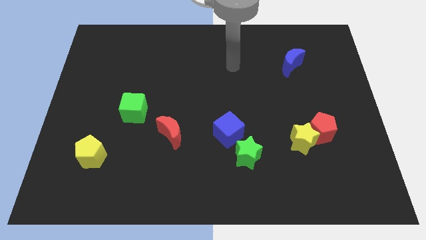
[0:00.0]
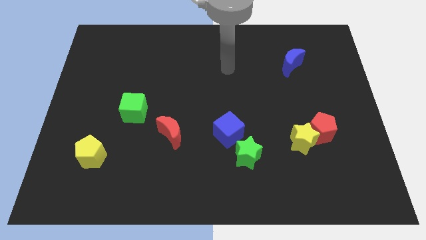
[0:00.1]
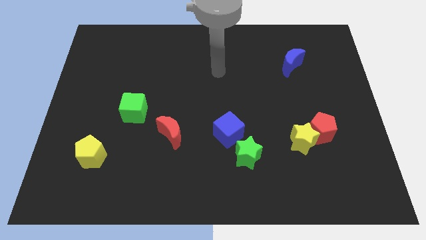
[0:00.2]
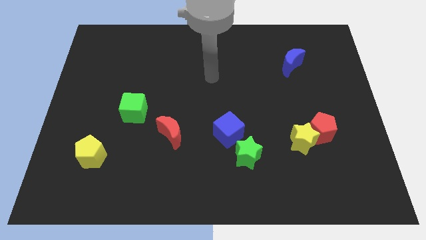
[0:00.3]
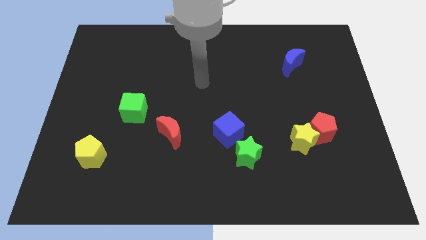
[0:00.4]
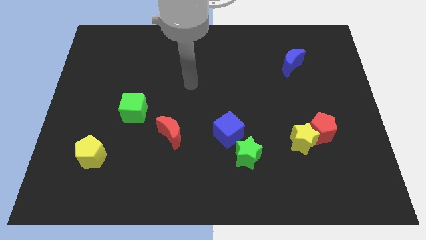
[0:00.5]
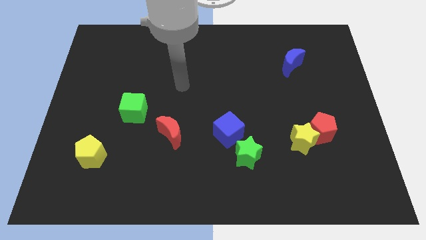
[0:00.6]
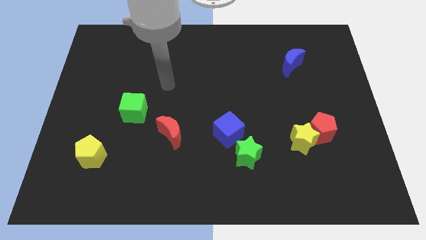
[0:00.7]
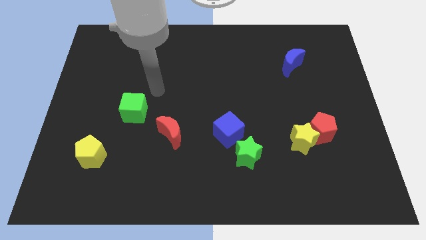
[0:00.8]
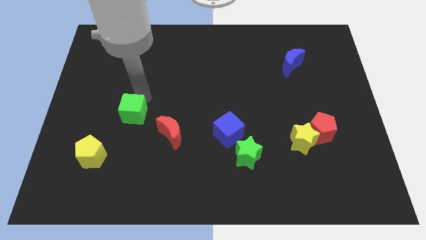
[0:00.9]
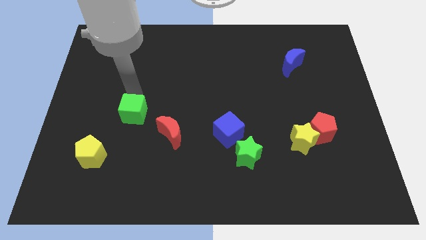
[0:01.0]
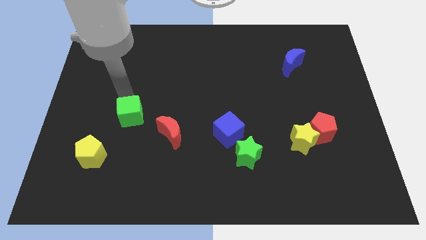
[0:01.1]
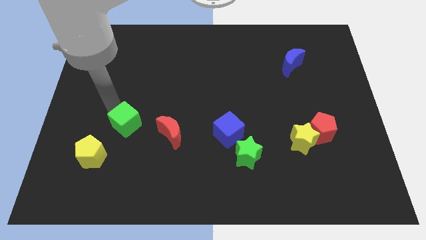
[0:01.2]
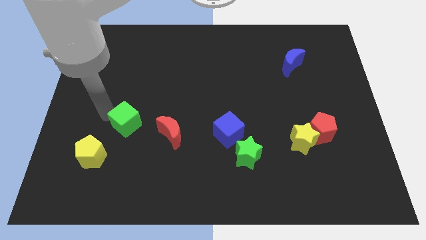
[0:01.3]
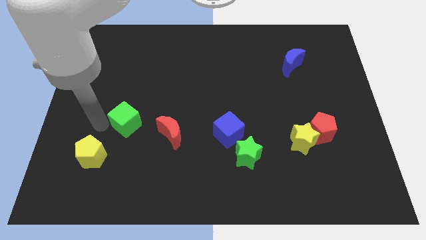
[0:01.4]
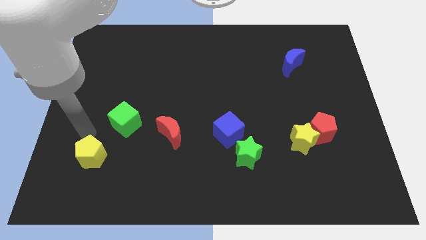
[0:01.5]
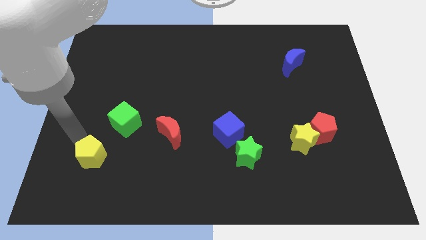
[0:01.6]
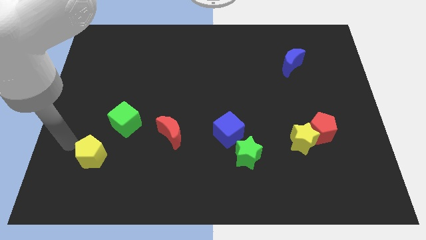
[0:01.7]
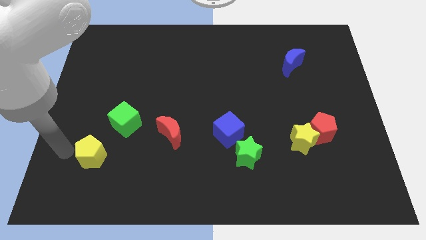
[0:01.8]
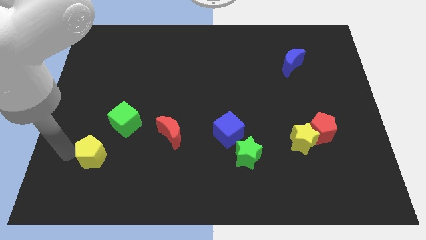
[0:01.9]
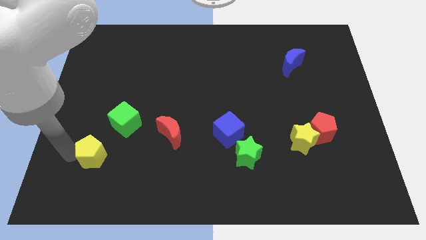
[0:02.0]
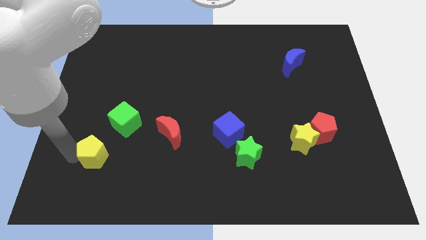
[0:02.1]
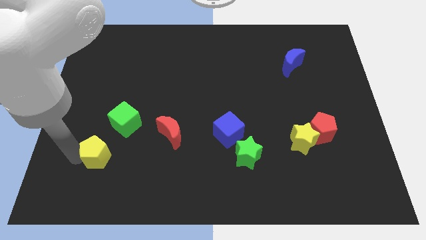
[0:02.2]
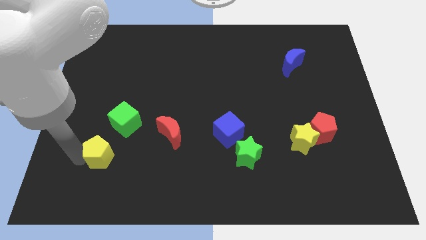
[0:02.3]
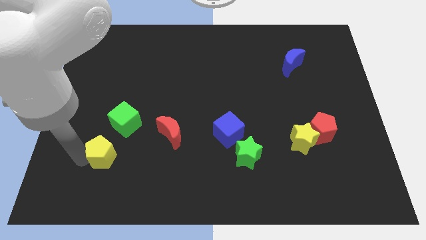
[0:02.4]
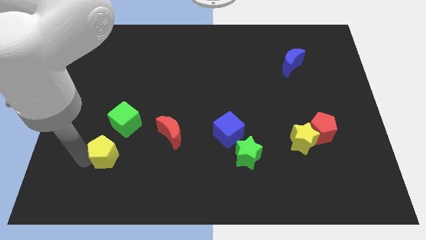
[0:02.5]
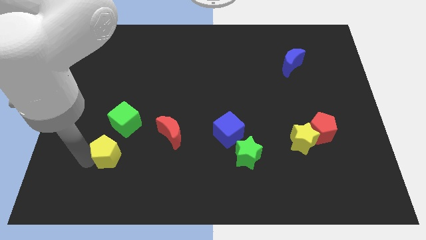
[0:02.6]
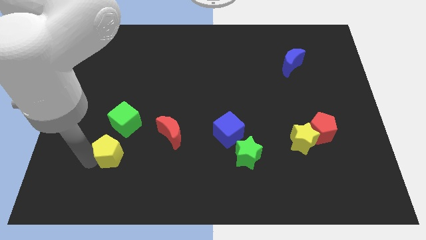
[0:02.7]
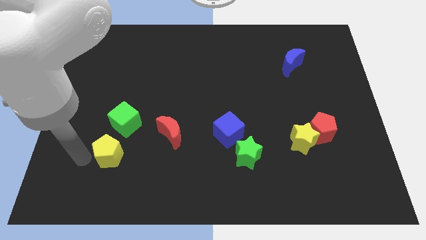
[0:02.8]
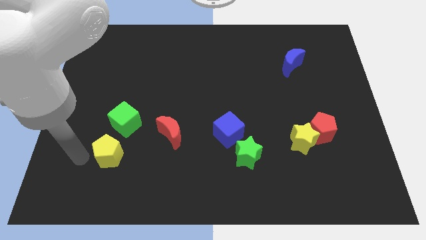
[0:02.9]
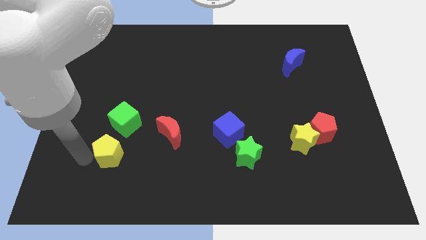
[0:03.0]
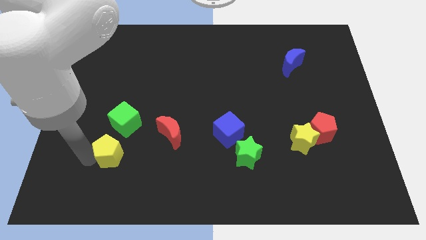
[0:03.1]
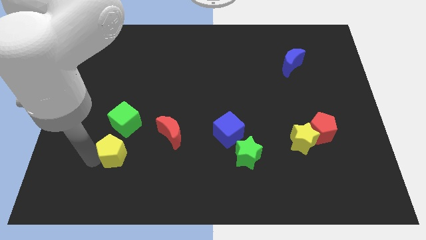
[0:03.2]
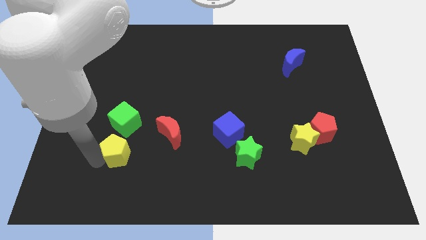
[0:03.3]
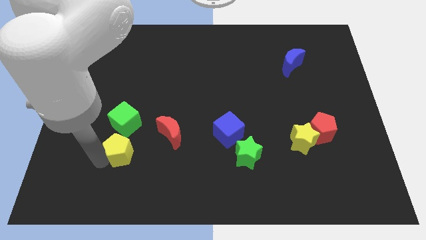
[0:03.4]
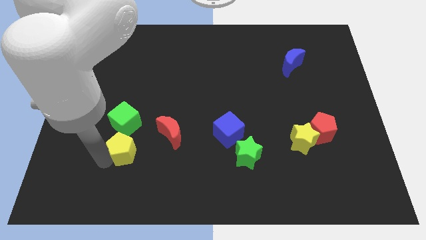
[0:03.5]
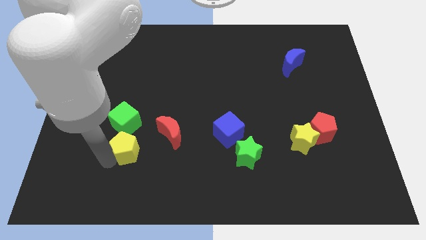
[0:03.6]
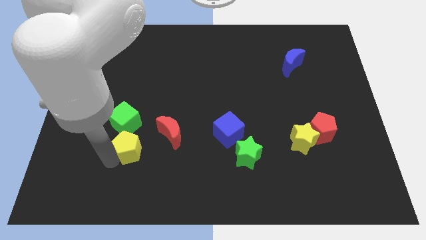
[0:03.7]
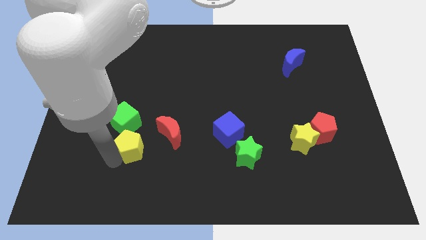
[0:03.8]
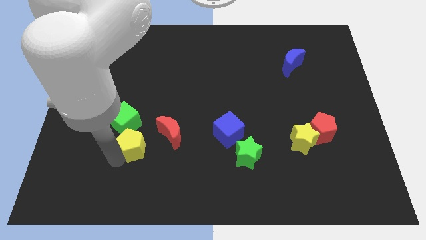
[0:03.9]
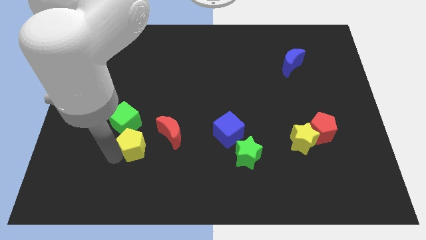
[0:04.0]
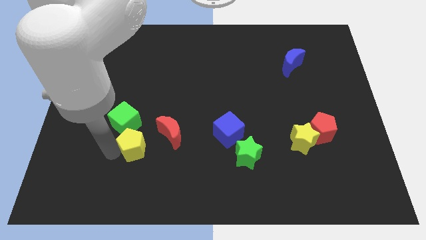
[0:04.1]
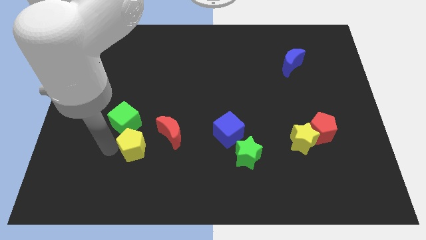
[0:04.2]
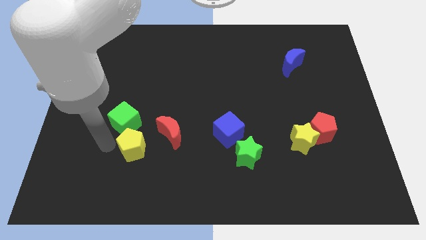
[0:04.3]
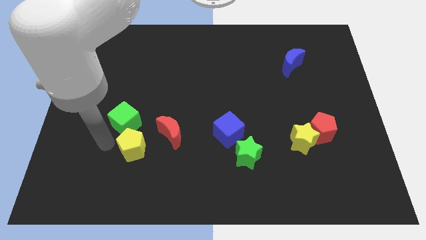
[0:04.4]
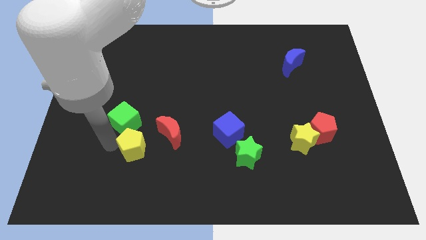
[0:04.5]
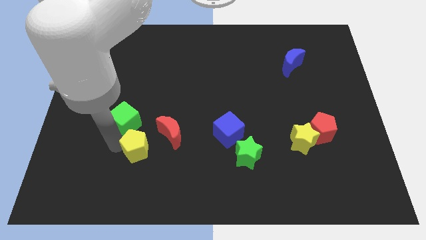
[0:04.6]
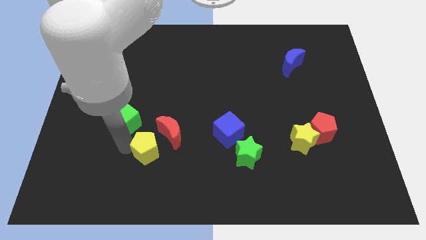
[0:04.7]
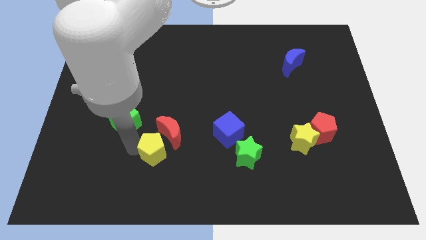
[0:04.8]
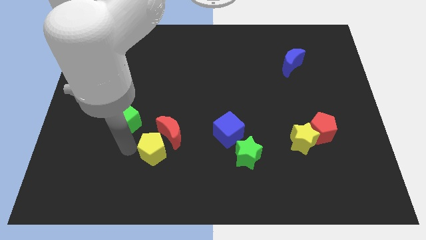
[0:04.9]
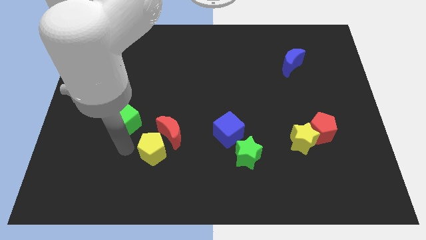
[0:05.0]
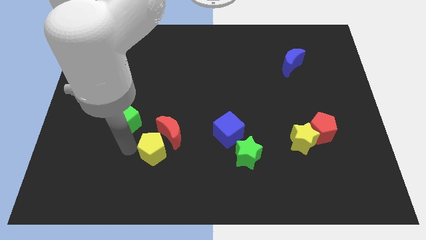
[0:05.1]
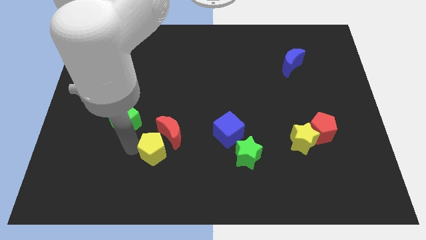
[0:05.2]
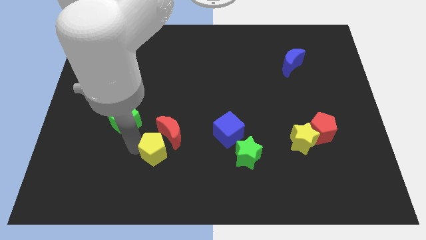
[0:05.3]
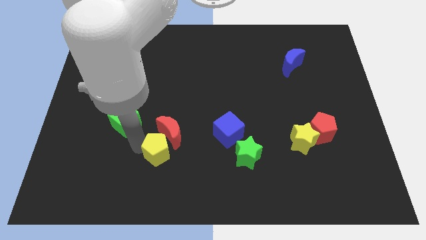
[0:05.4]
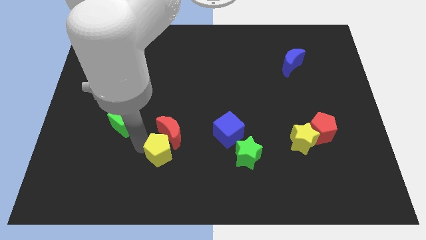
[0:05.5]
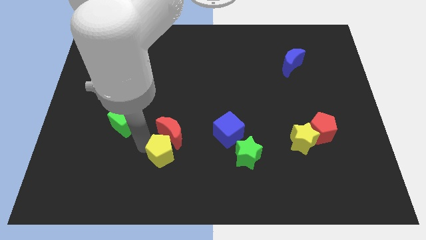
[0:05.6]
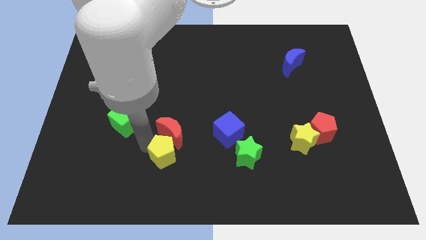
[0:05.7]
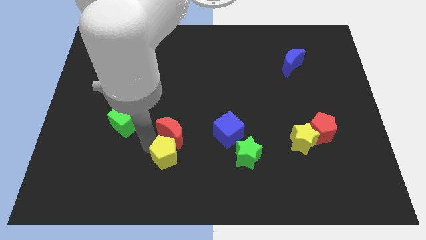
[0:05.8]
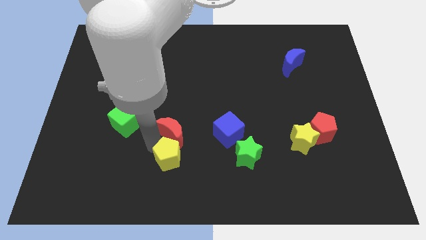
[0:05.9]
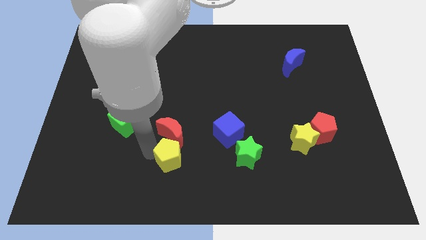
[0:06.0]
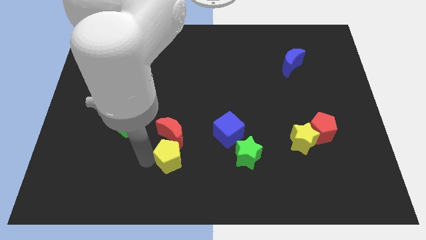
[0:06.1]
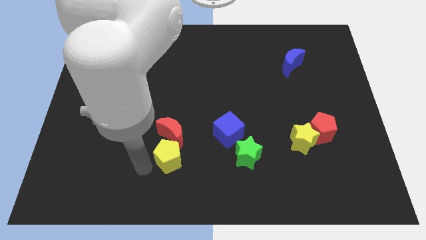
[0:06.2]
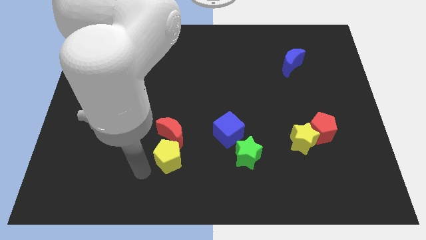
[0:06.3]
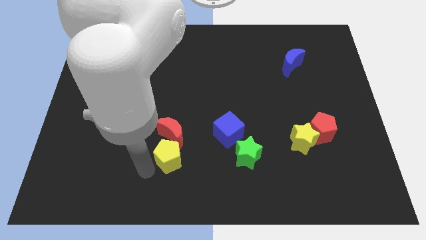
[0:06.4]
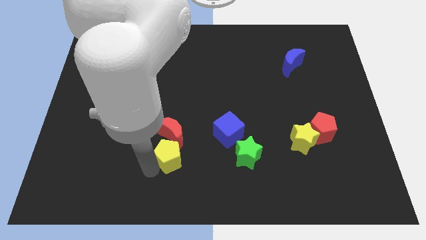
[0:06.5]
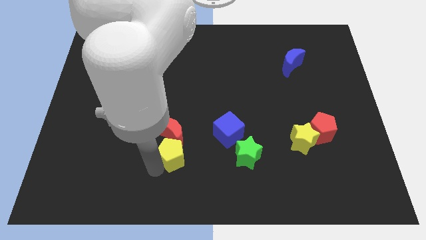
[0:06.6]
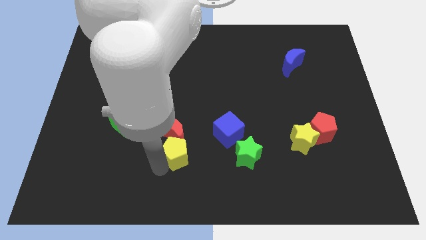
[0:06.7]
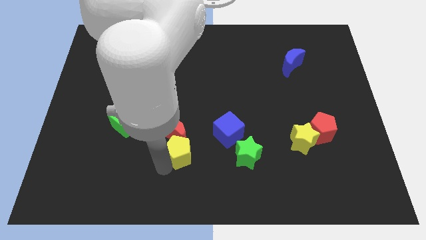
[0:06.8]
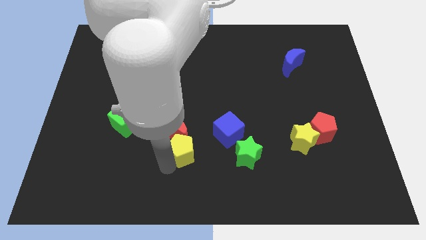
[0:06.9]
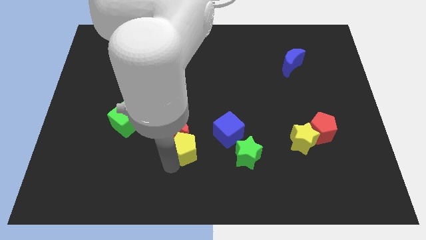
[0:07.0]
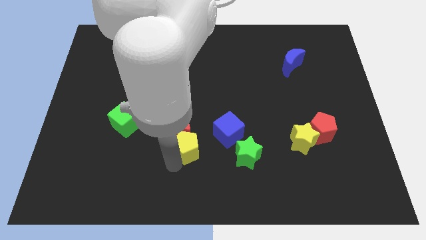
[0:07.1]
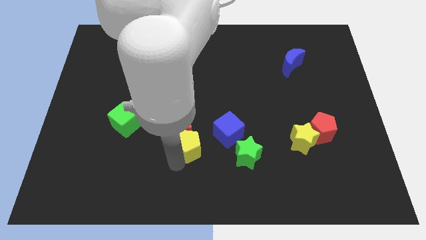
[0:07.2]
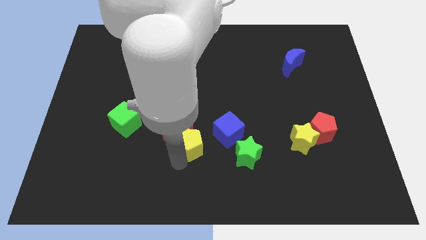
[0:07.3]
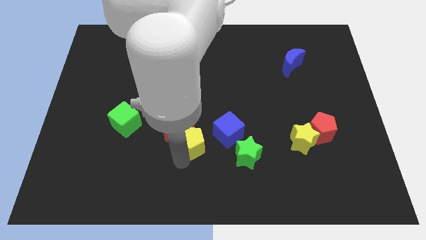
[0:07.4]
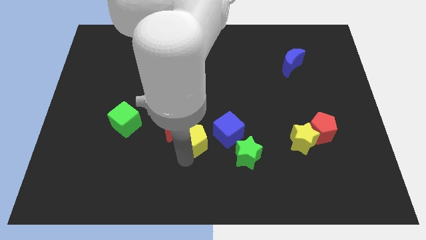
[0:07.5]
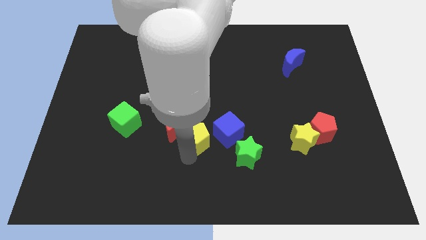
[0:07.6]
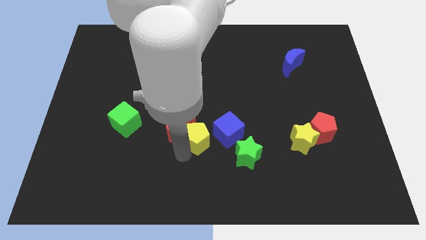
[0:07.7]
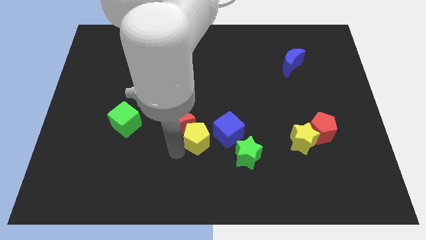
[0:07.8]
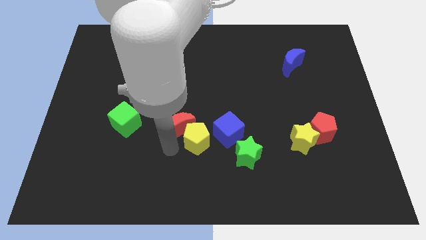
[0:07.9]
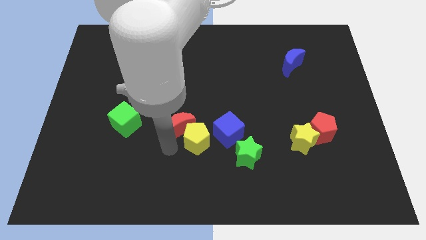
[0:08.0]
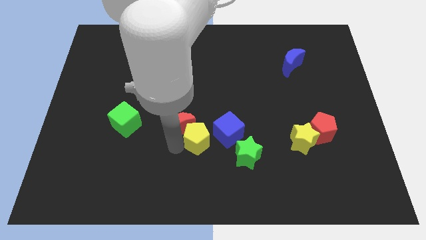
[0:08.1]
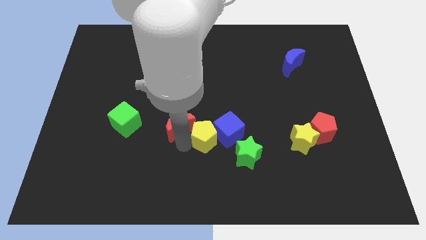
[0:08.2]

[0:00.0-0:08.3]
slide the yellow pentagon towards the blue cube

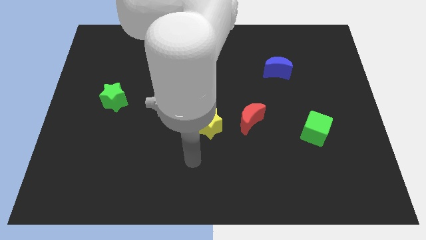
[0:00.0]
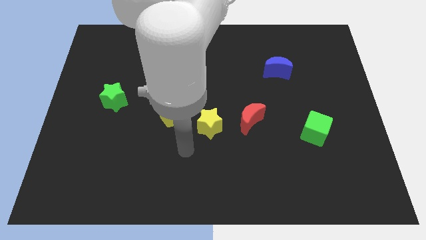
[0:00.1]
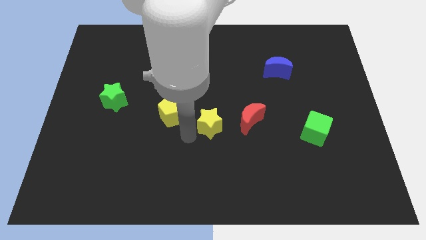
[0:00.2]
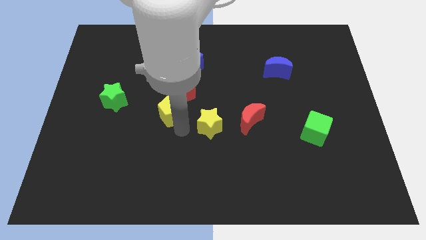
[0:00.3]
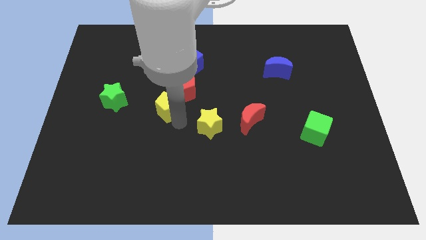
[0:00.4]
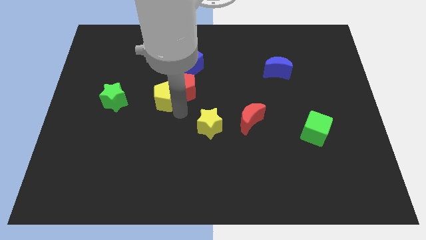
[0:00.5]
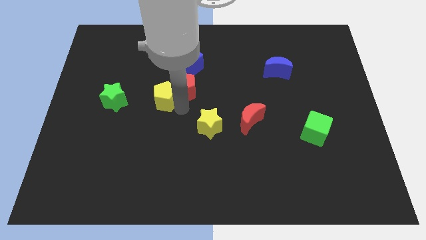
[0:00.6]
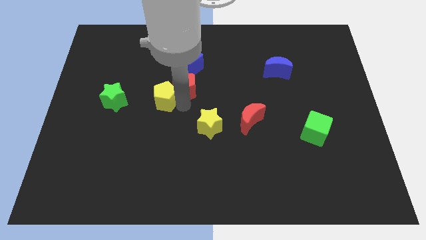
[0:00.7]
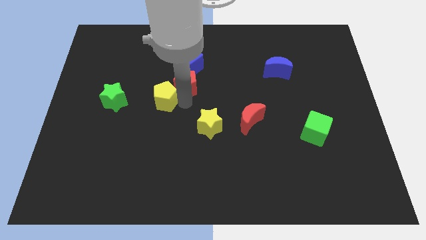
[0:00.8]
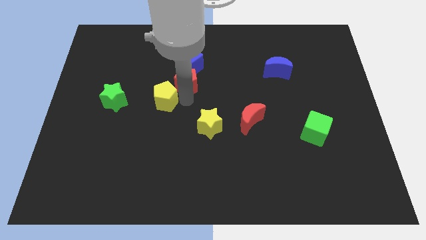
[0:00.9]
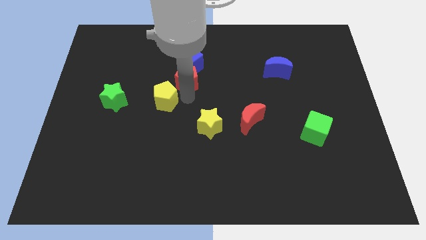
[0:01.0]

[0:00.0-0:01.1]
slide the red pentagon close to the blue cube
